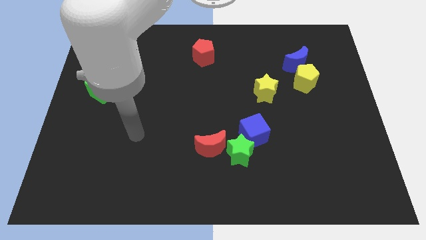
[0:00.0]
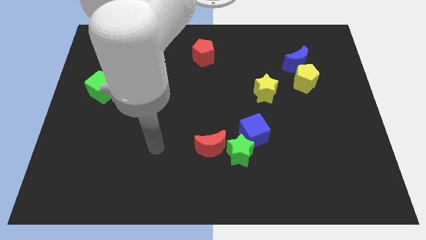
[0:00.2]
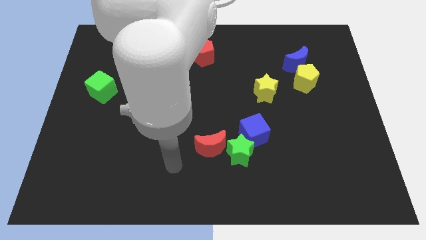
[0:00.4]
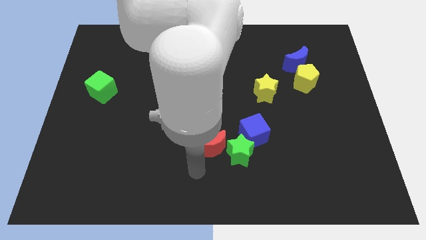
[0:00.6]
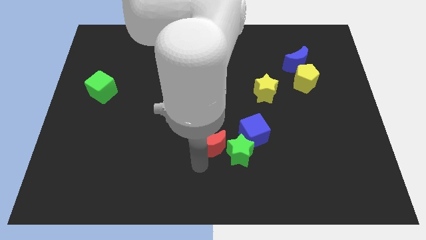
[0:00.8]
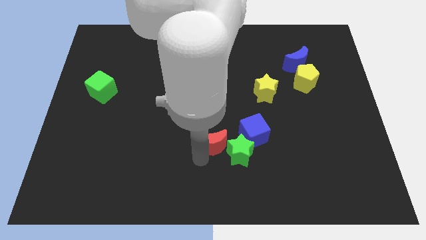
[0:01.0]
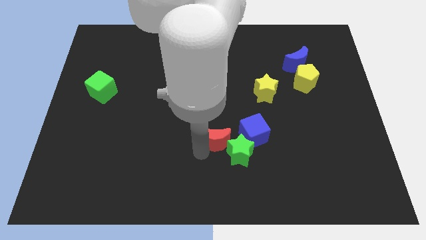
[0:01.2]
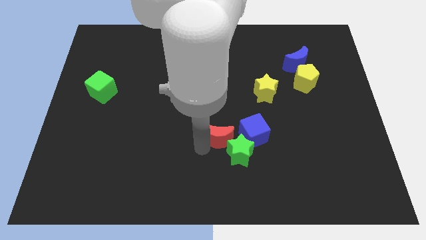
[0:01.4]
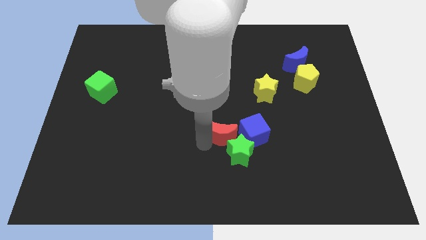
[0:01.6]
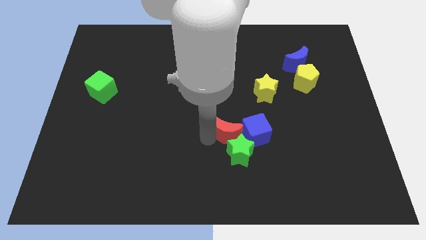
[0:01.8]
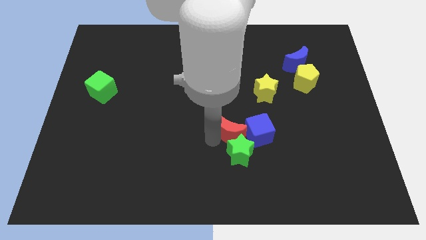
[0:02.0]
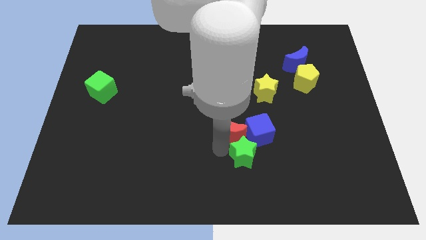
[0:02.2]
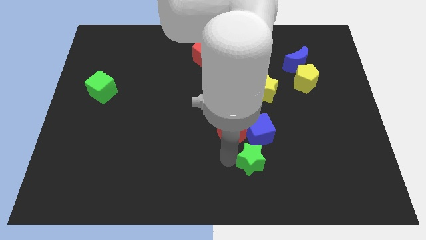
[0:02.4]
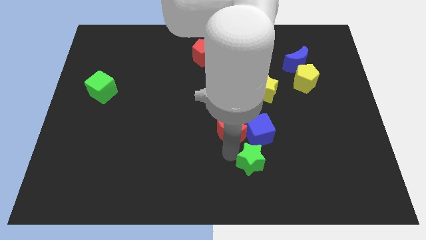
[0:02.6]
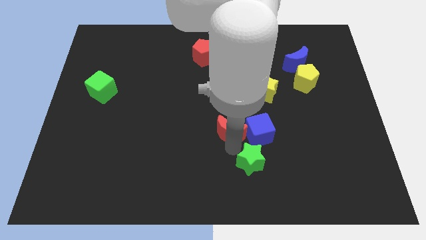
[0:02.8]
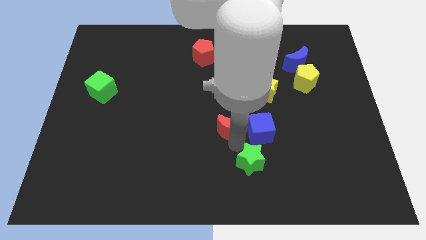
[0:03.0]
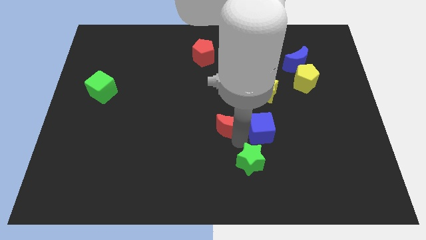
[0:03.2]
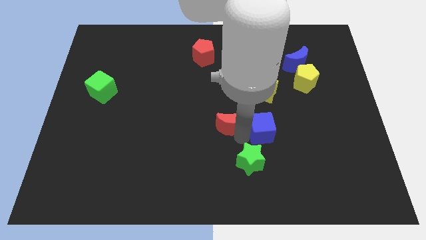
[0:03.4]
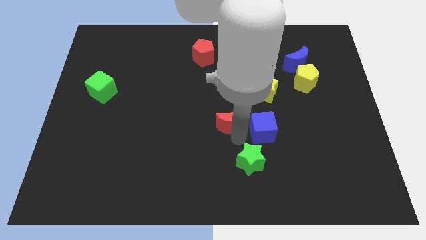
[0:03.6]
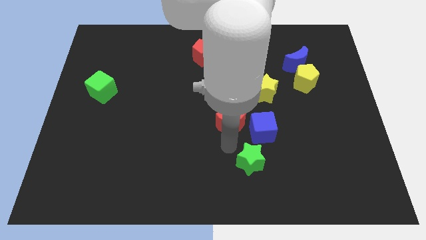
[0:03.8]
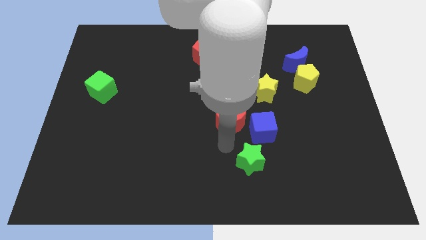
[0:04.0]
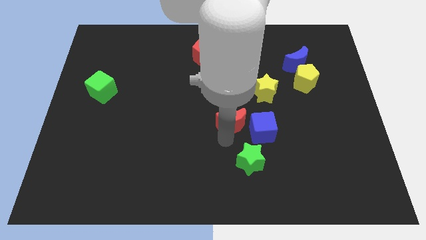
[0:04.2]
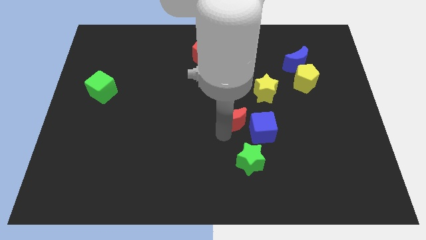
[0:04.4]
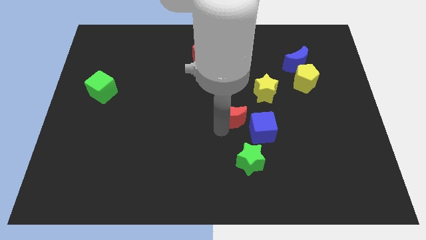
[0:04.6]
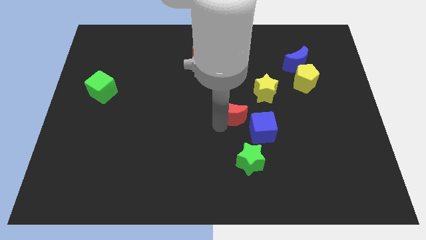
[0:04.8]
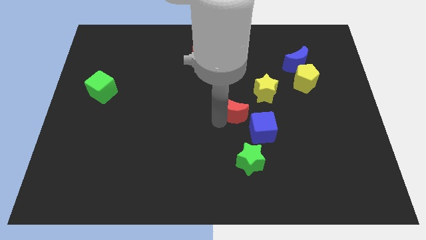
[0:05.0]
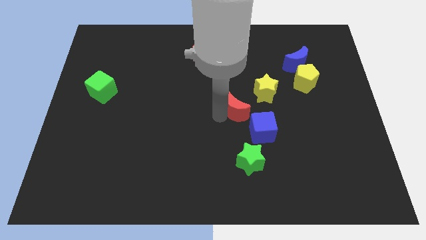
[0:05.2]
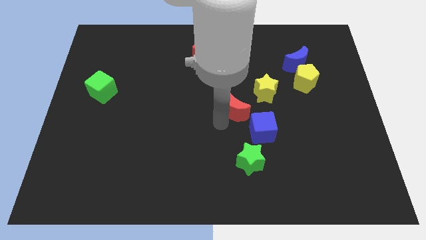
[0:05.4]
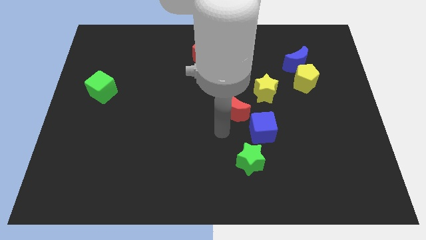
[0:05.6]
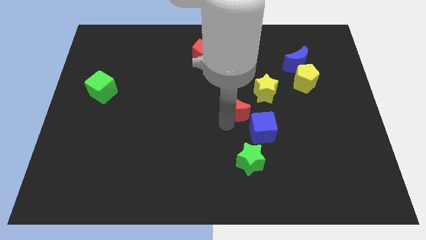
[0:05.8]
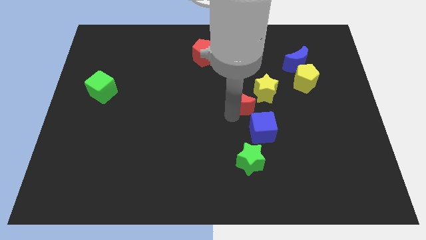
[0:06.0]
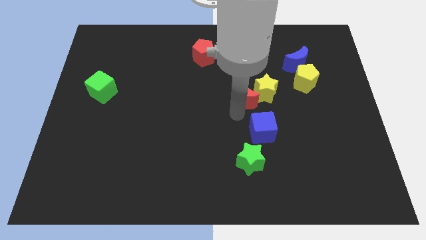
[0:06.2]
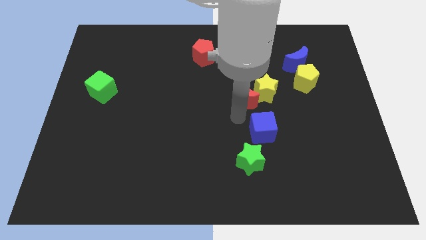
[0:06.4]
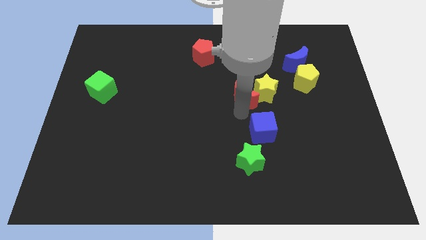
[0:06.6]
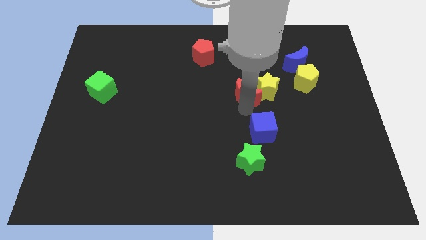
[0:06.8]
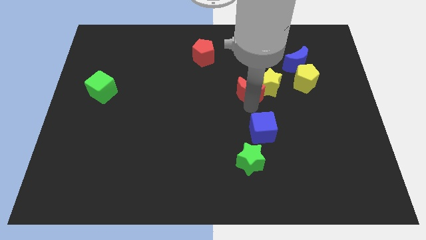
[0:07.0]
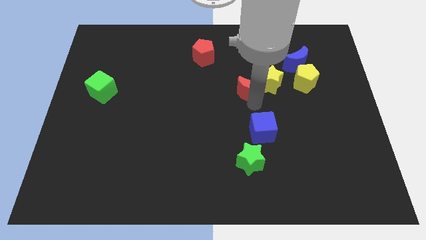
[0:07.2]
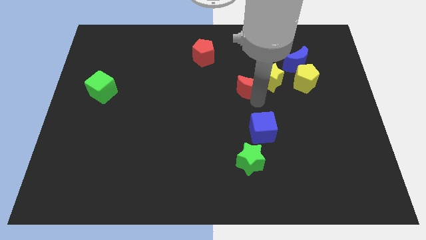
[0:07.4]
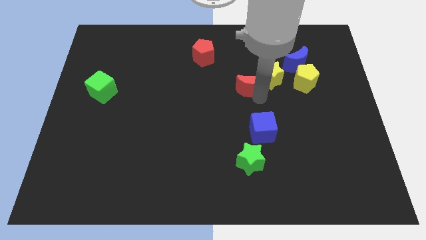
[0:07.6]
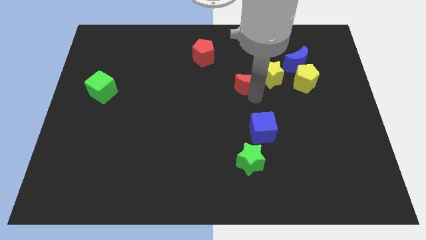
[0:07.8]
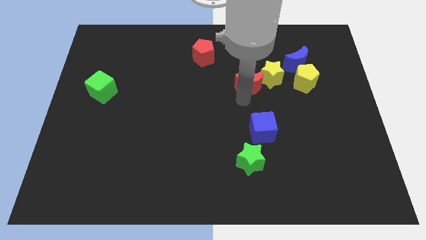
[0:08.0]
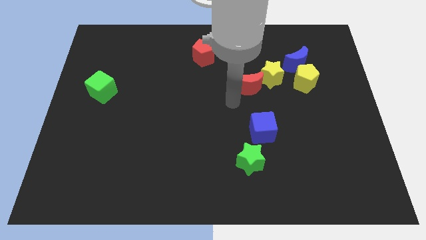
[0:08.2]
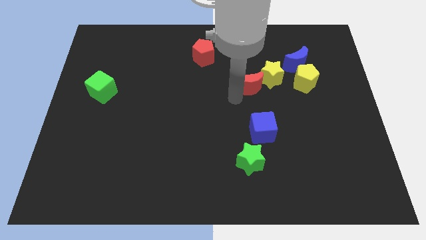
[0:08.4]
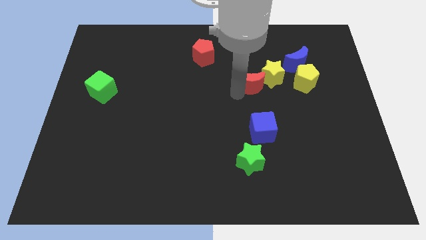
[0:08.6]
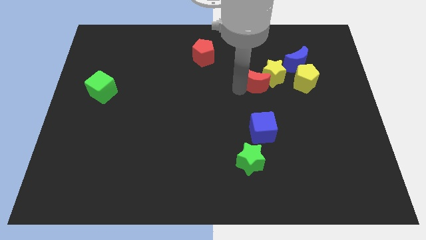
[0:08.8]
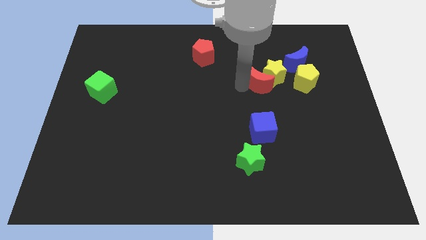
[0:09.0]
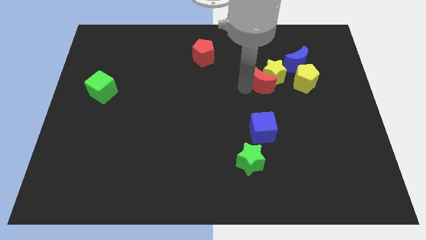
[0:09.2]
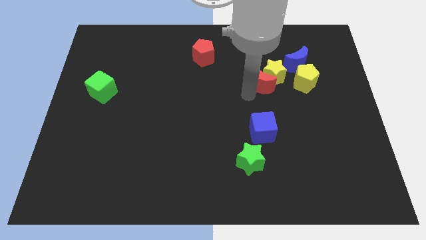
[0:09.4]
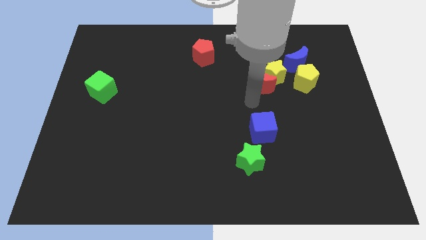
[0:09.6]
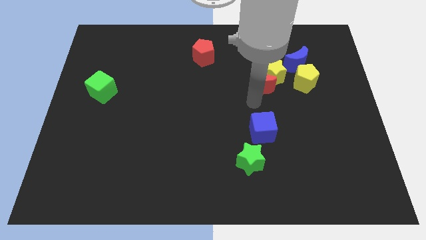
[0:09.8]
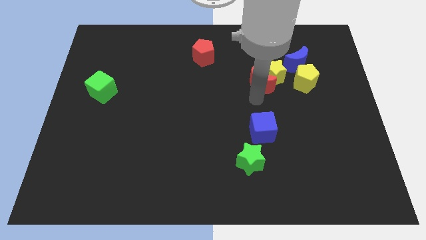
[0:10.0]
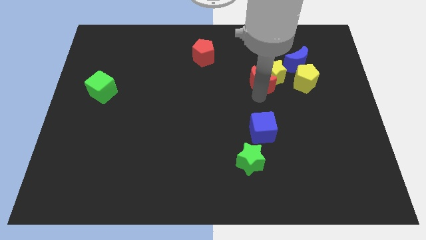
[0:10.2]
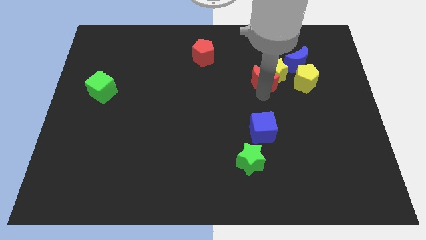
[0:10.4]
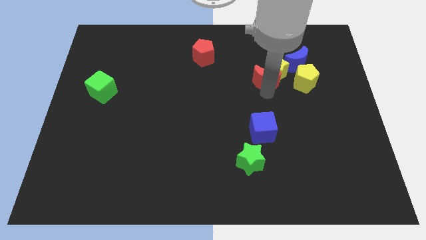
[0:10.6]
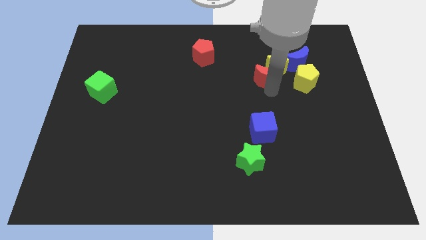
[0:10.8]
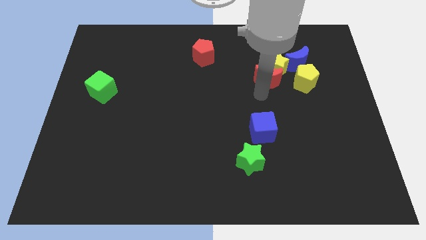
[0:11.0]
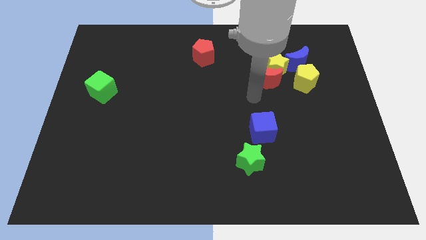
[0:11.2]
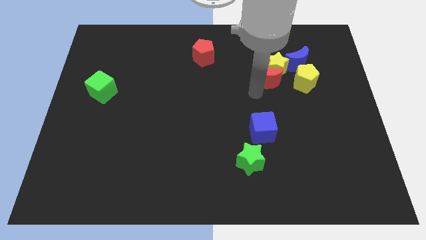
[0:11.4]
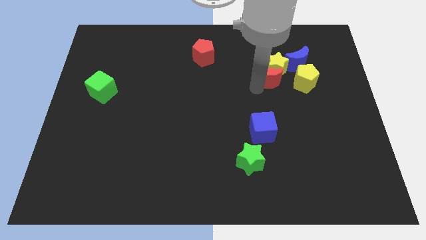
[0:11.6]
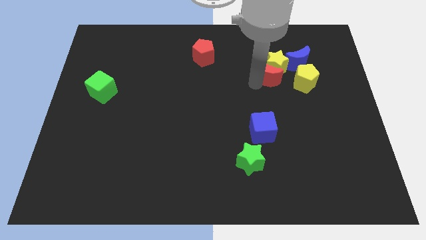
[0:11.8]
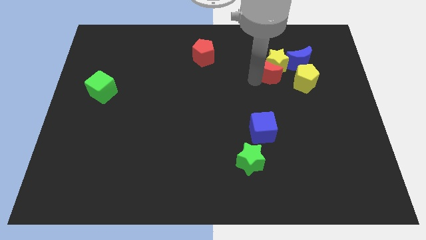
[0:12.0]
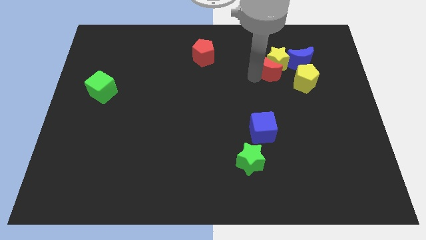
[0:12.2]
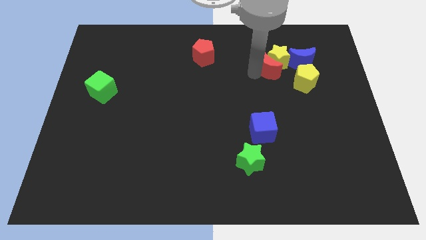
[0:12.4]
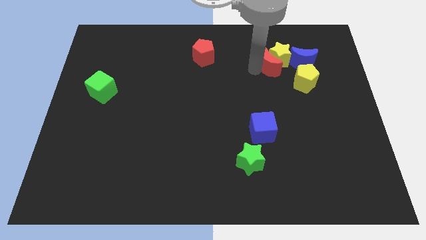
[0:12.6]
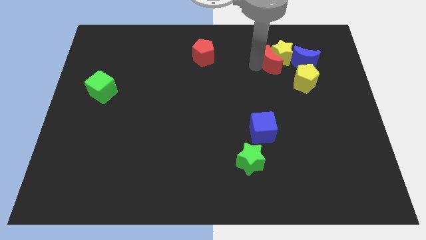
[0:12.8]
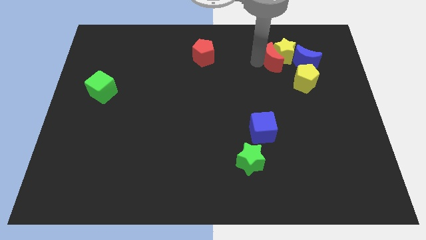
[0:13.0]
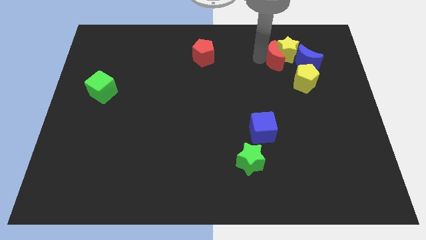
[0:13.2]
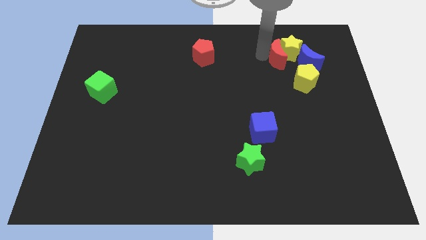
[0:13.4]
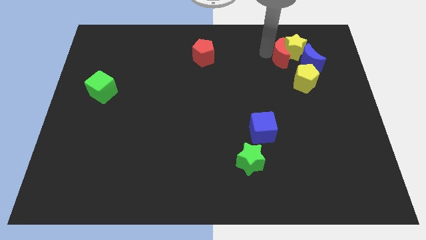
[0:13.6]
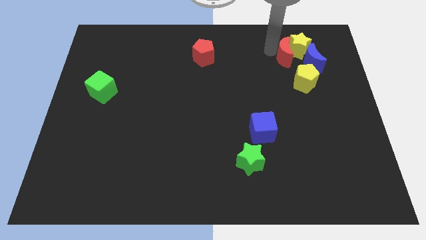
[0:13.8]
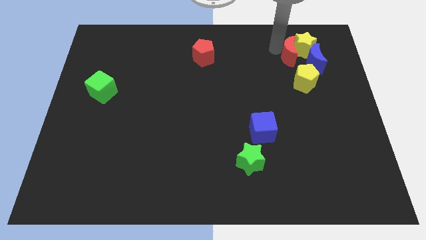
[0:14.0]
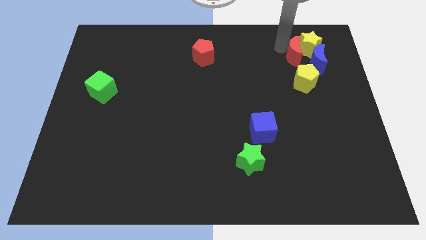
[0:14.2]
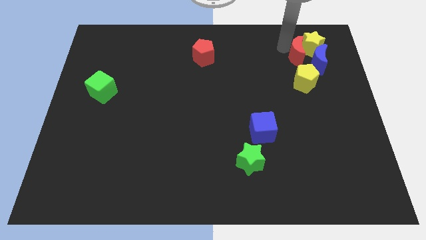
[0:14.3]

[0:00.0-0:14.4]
move the red moon to the blue moon
